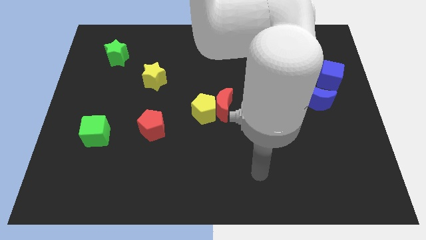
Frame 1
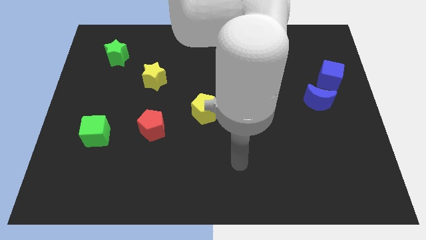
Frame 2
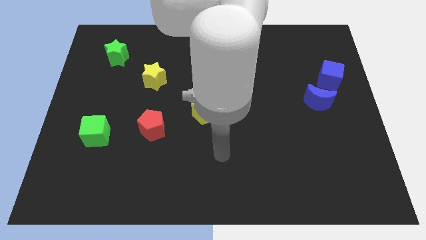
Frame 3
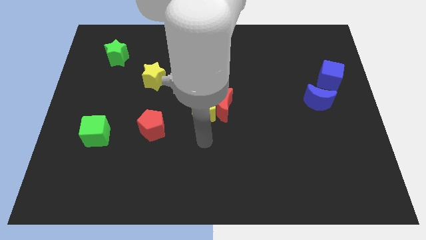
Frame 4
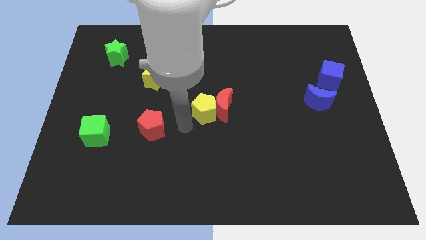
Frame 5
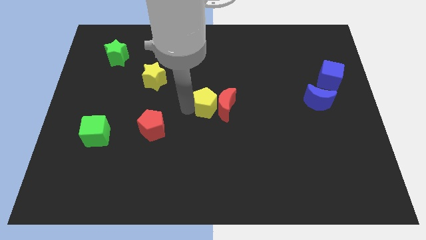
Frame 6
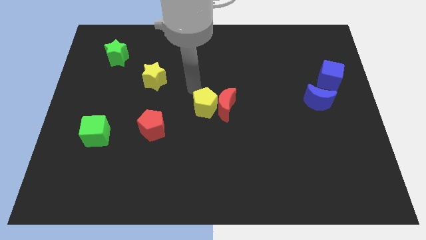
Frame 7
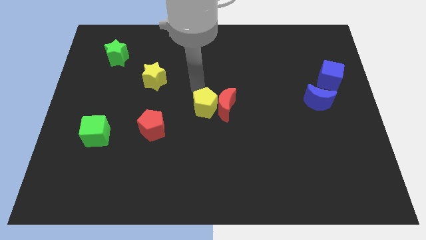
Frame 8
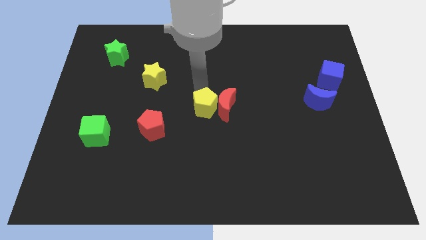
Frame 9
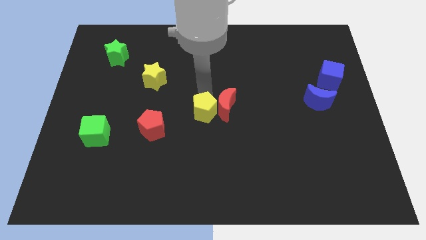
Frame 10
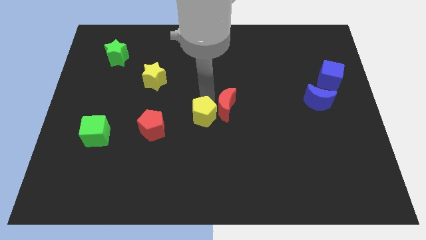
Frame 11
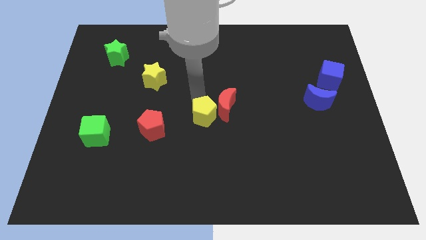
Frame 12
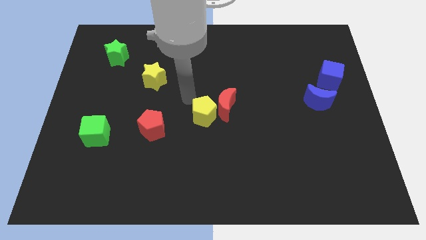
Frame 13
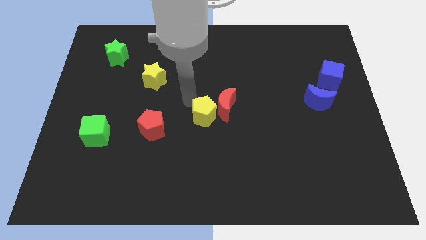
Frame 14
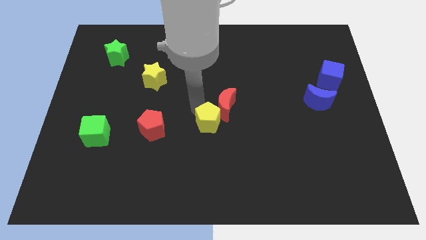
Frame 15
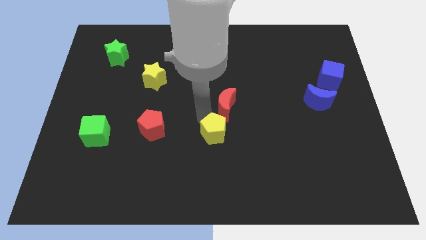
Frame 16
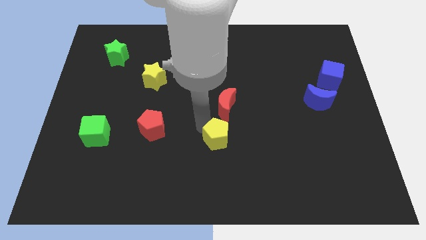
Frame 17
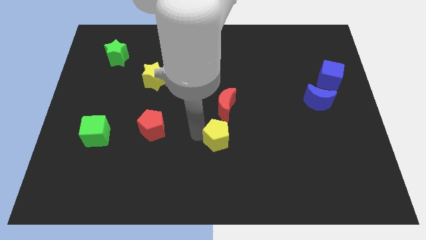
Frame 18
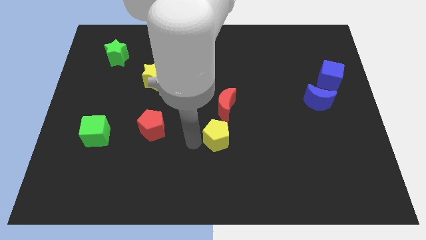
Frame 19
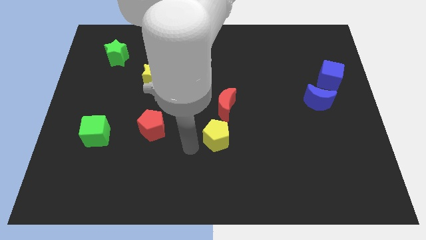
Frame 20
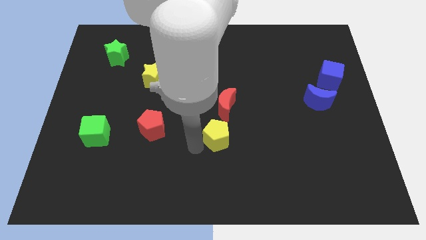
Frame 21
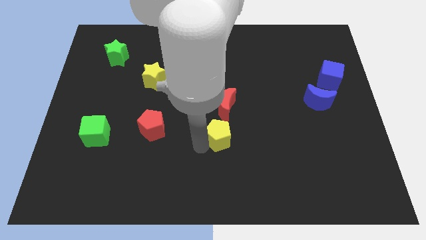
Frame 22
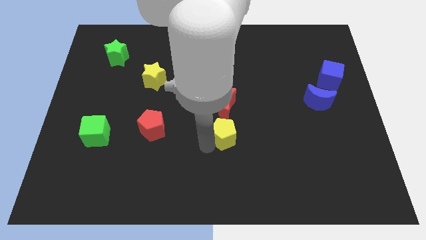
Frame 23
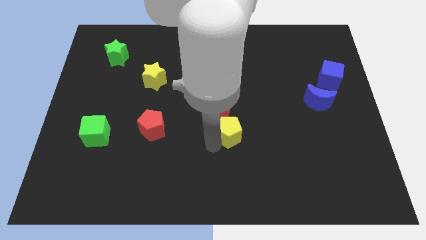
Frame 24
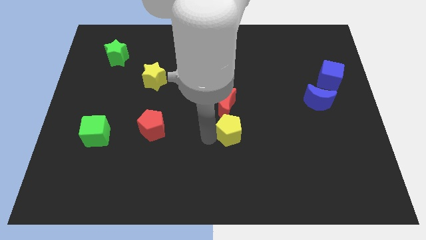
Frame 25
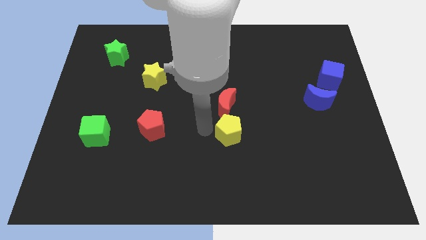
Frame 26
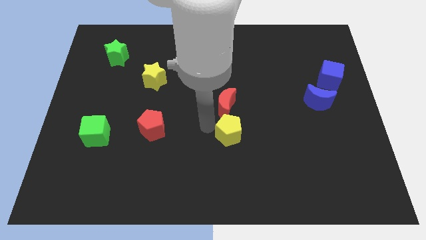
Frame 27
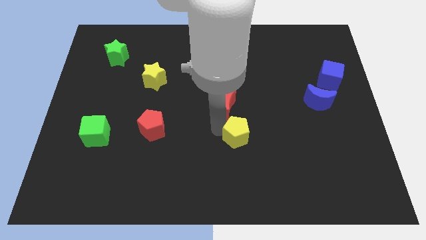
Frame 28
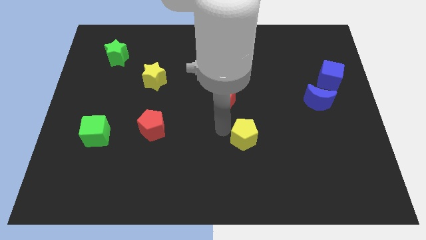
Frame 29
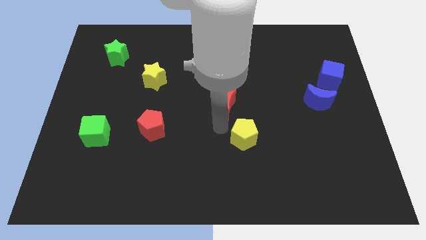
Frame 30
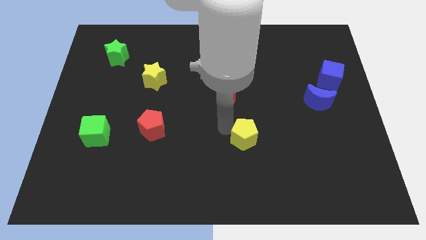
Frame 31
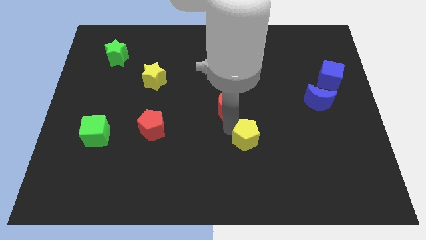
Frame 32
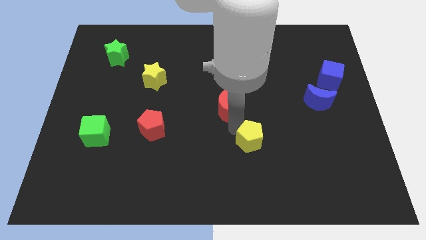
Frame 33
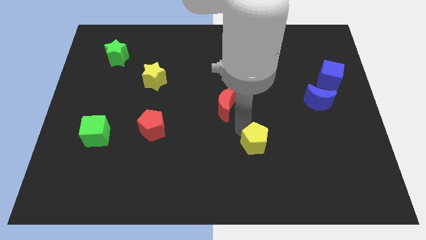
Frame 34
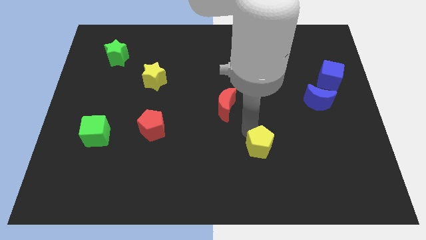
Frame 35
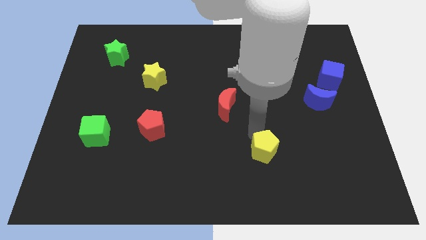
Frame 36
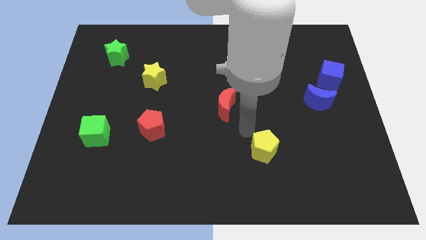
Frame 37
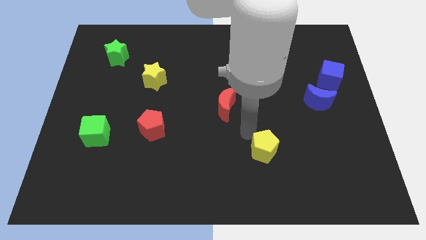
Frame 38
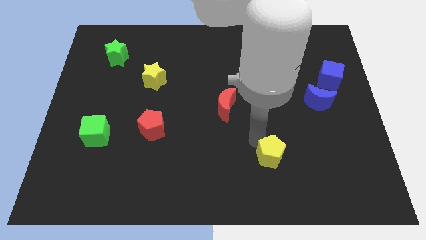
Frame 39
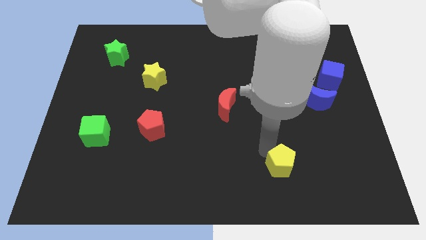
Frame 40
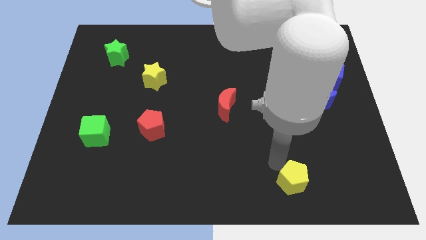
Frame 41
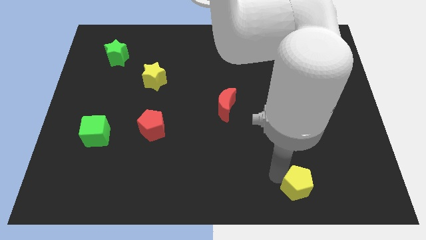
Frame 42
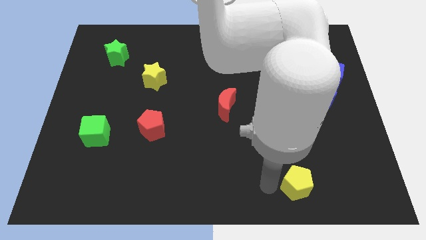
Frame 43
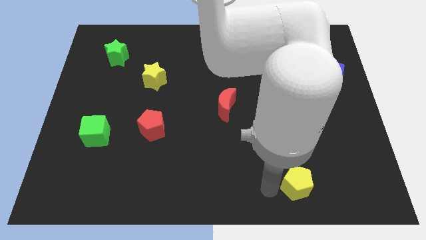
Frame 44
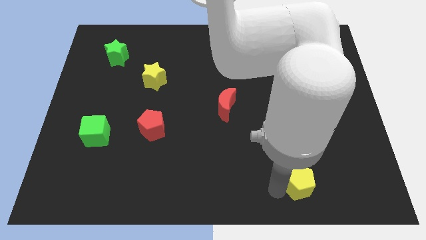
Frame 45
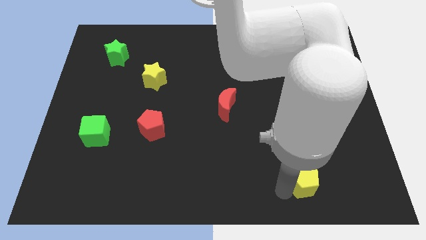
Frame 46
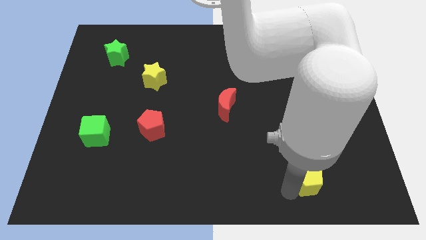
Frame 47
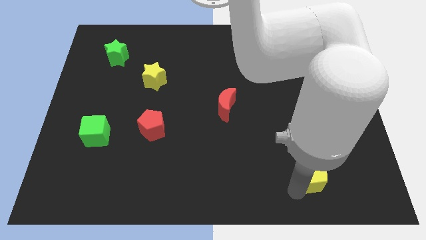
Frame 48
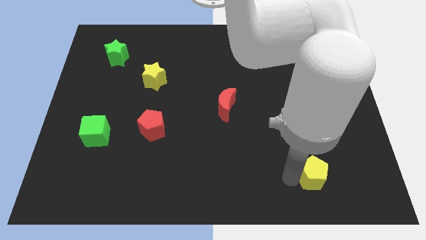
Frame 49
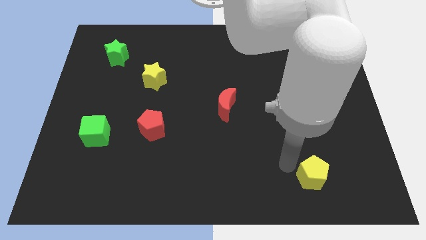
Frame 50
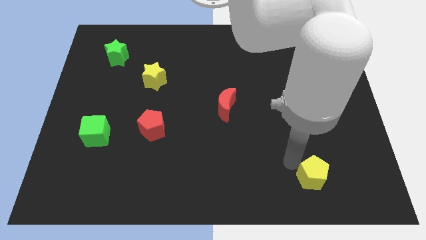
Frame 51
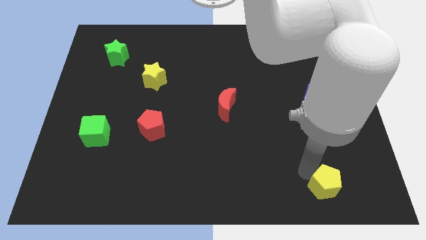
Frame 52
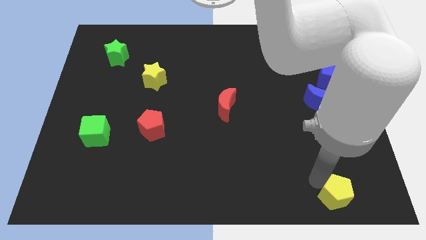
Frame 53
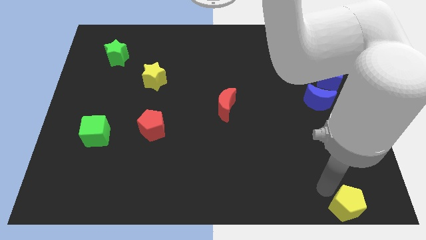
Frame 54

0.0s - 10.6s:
put the yellow pentagon to the lower right corner
